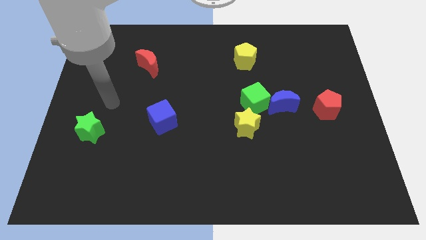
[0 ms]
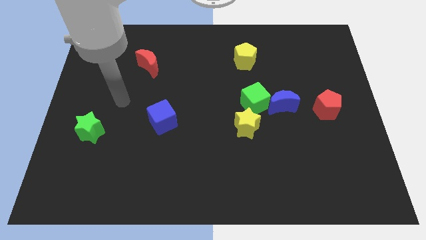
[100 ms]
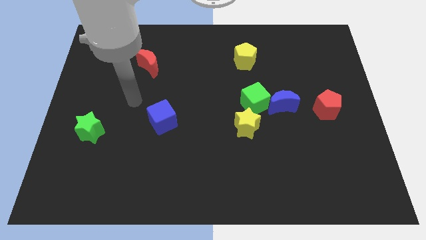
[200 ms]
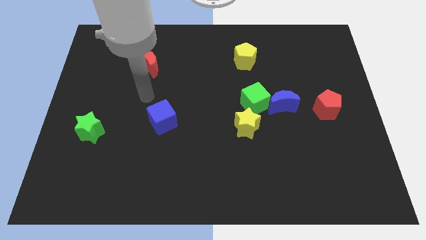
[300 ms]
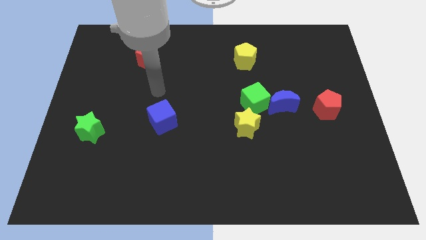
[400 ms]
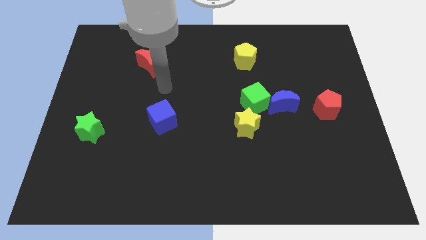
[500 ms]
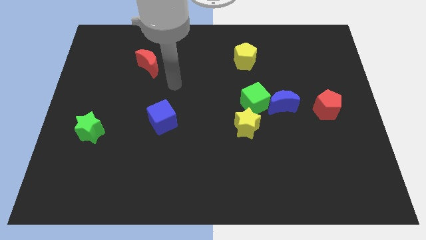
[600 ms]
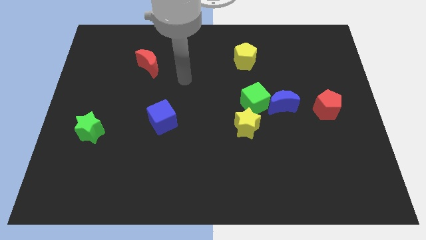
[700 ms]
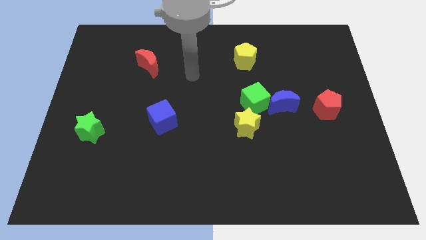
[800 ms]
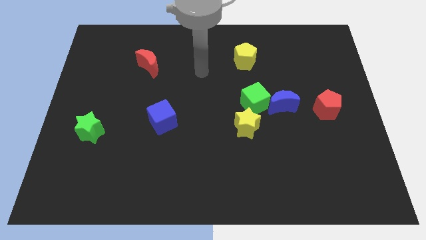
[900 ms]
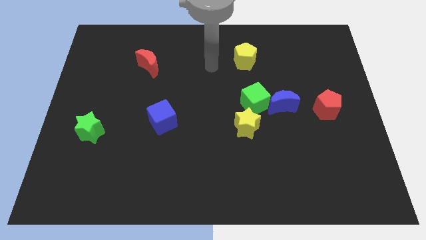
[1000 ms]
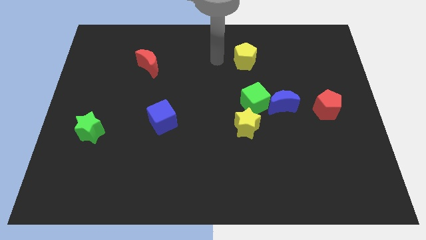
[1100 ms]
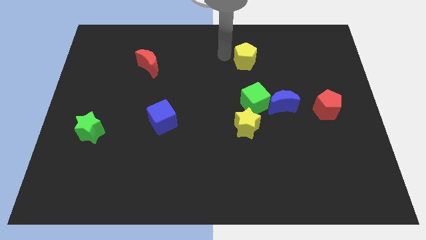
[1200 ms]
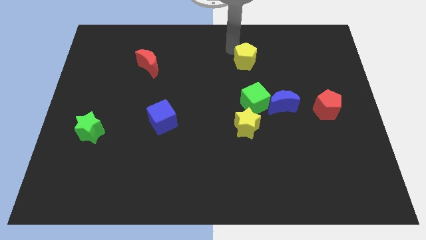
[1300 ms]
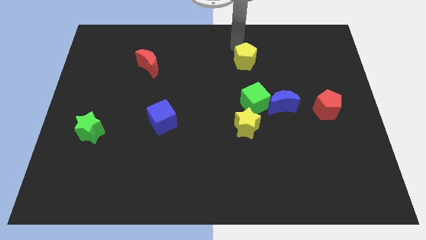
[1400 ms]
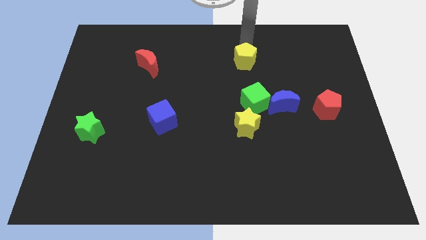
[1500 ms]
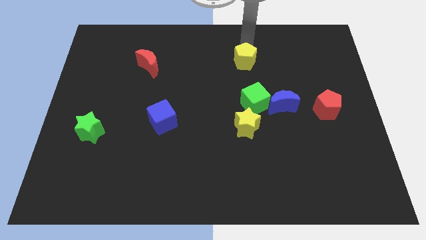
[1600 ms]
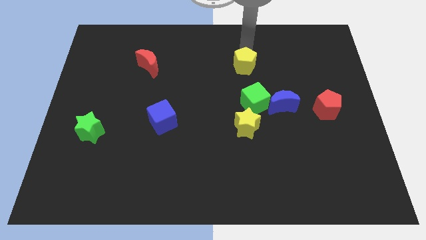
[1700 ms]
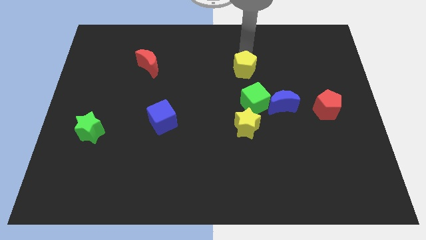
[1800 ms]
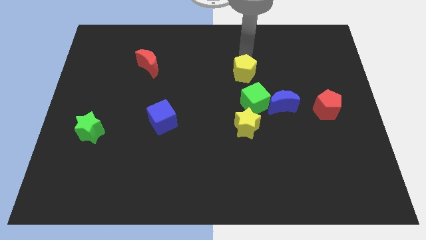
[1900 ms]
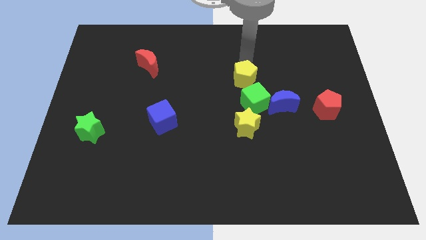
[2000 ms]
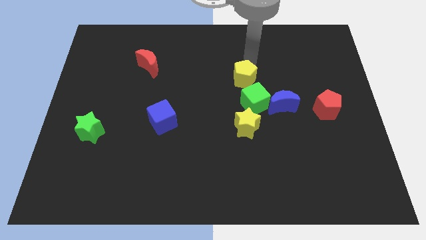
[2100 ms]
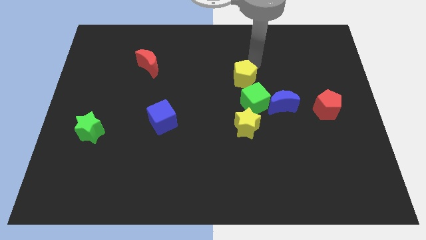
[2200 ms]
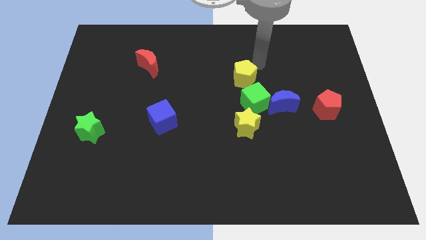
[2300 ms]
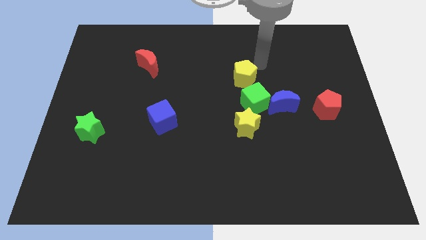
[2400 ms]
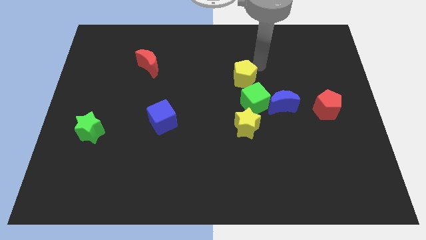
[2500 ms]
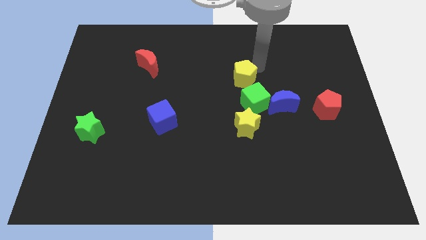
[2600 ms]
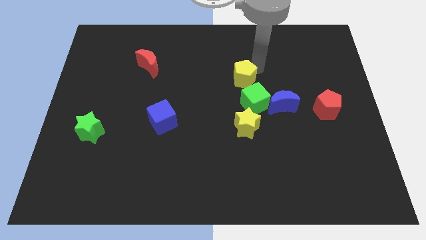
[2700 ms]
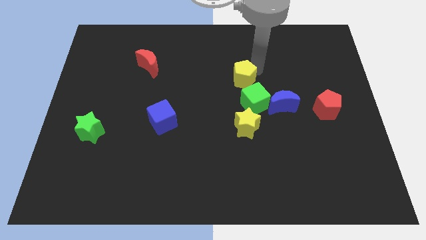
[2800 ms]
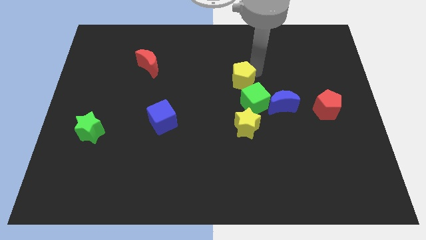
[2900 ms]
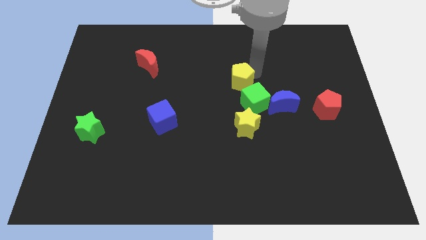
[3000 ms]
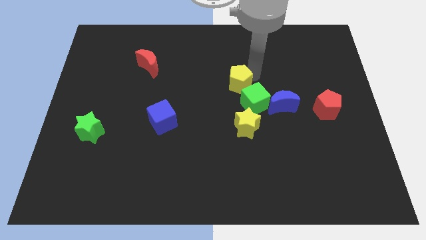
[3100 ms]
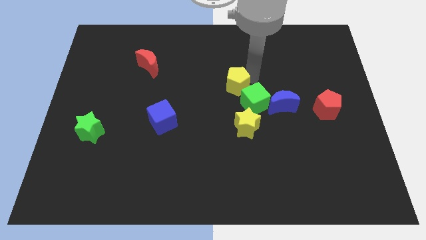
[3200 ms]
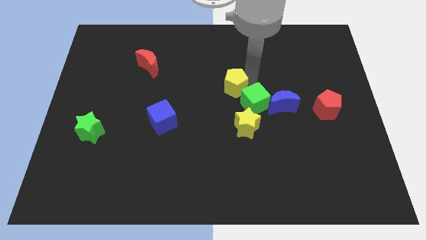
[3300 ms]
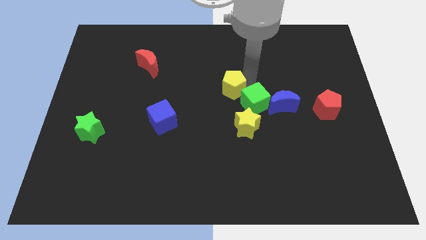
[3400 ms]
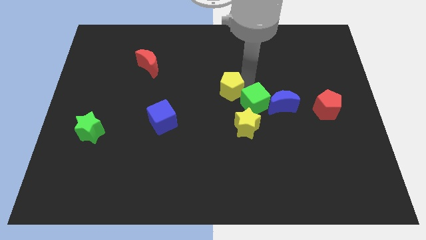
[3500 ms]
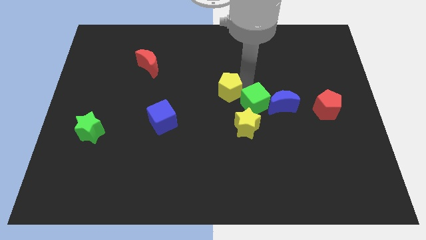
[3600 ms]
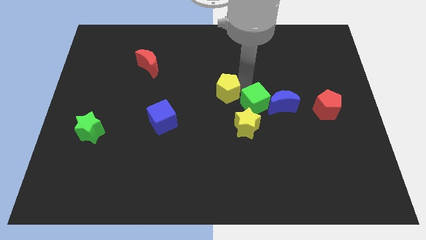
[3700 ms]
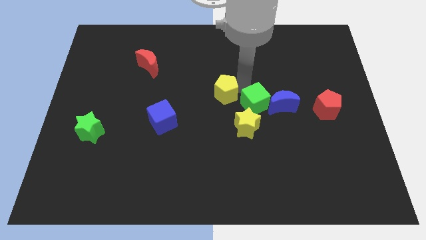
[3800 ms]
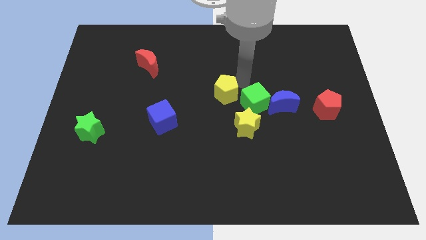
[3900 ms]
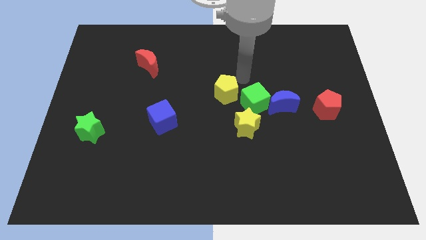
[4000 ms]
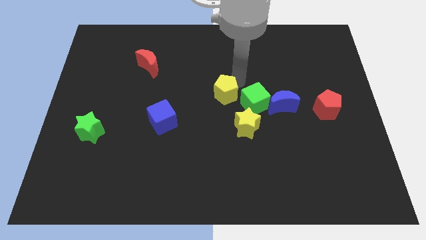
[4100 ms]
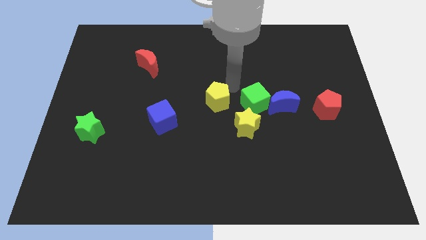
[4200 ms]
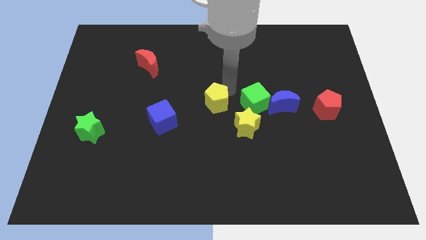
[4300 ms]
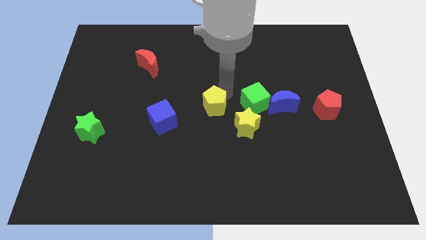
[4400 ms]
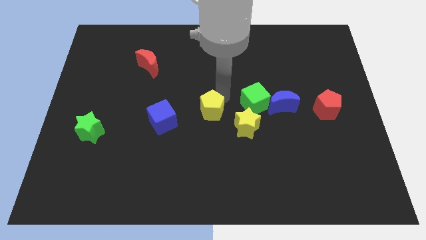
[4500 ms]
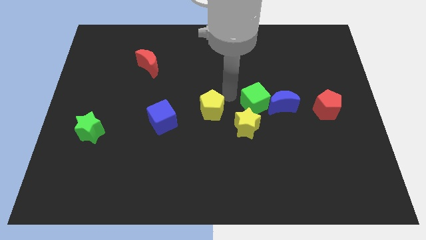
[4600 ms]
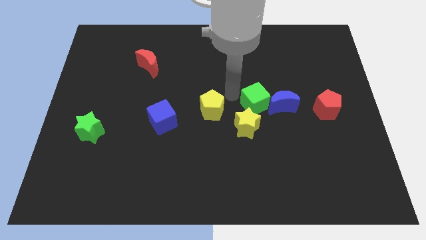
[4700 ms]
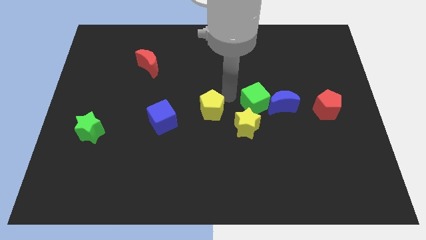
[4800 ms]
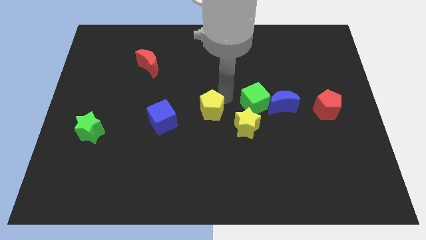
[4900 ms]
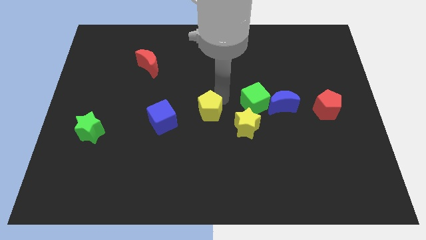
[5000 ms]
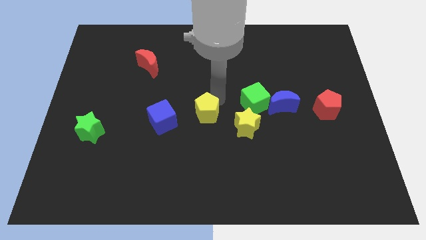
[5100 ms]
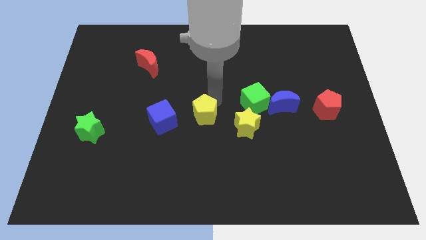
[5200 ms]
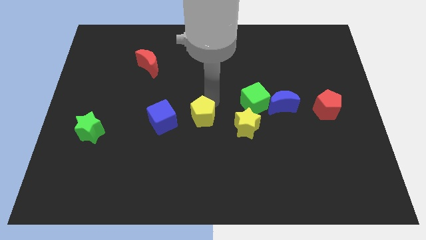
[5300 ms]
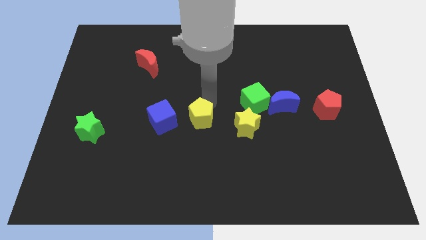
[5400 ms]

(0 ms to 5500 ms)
push the yellow pentagon downwards and then left

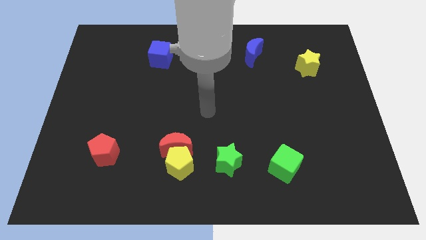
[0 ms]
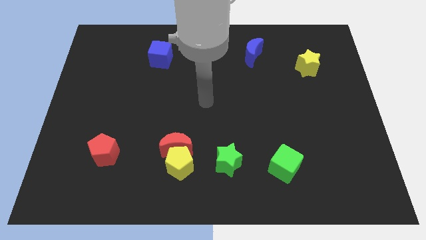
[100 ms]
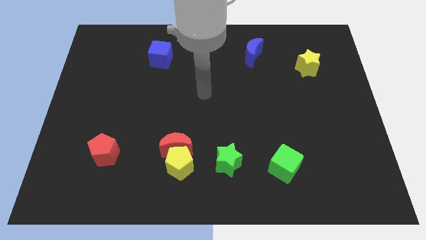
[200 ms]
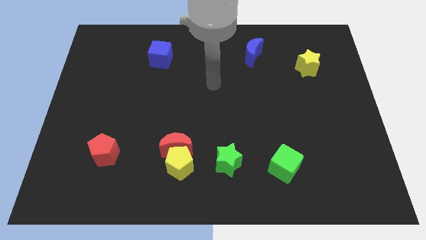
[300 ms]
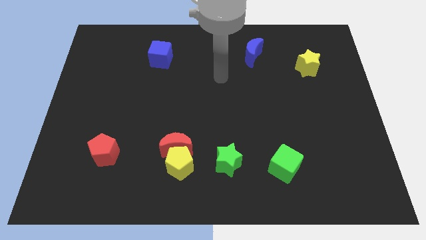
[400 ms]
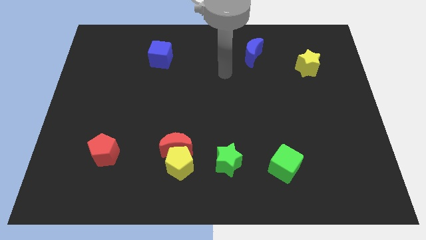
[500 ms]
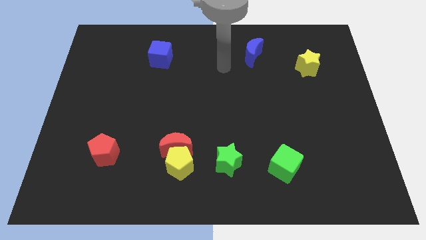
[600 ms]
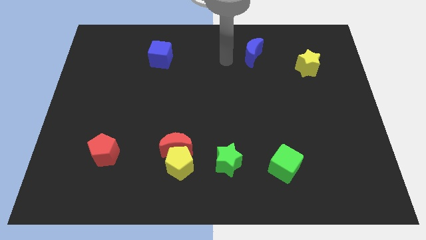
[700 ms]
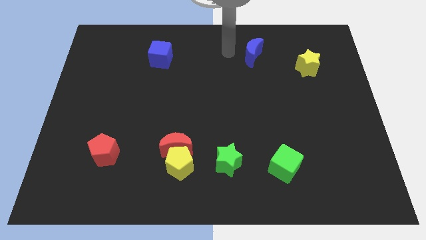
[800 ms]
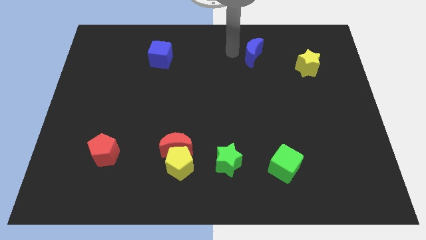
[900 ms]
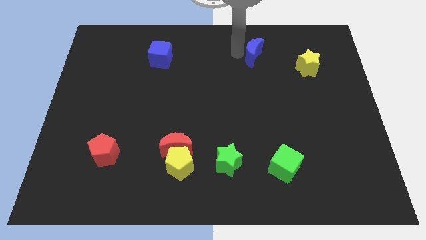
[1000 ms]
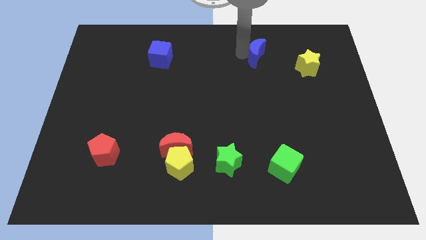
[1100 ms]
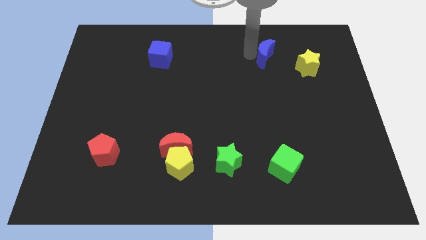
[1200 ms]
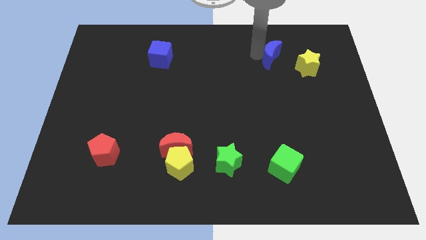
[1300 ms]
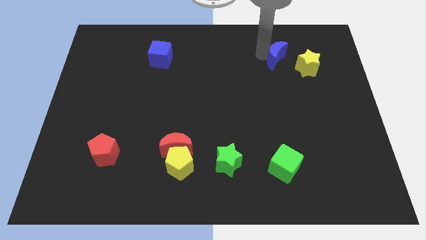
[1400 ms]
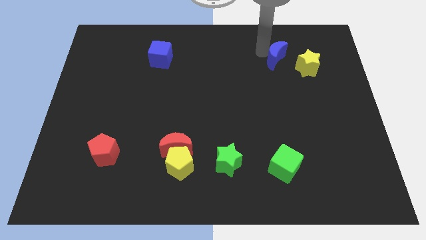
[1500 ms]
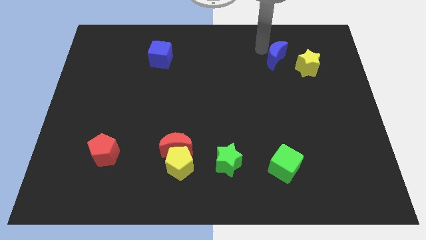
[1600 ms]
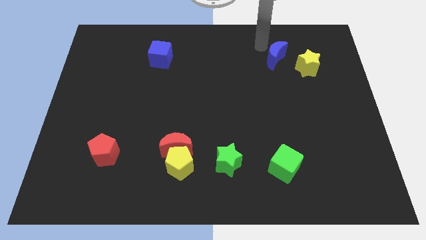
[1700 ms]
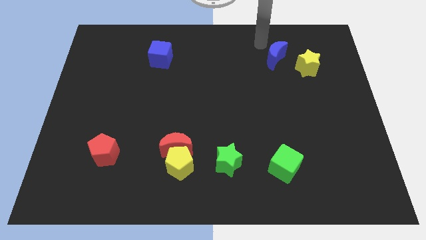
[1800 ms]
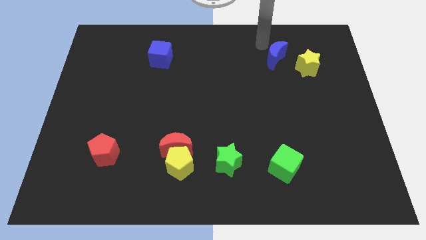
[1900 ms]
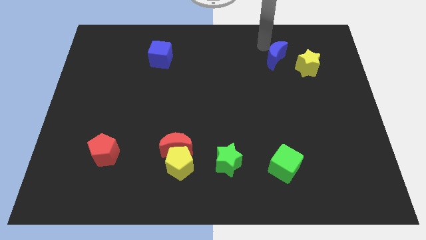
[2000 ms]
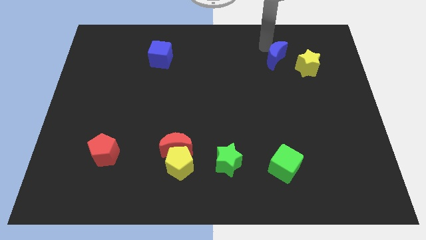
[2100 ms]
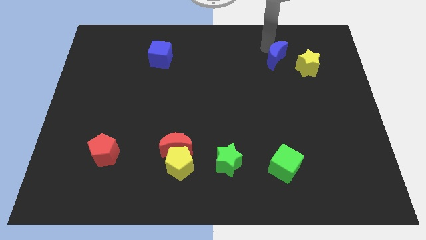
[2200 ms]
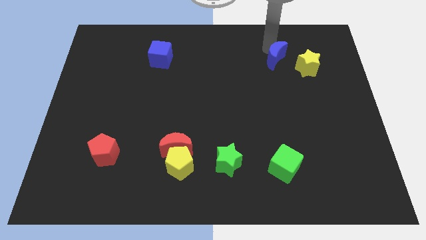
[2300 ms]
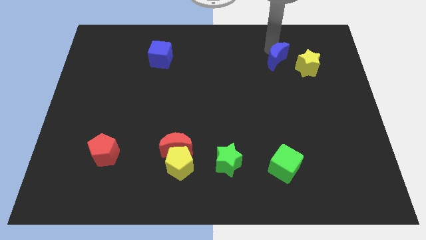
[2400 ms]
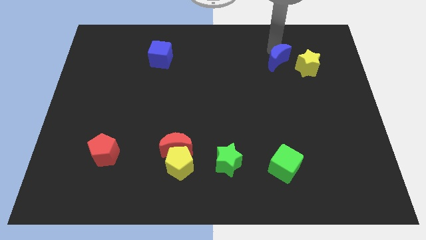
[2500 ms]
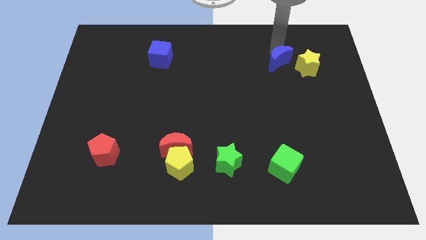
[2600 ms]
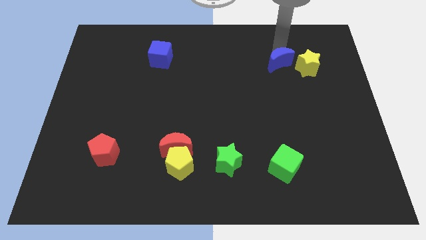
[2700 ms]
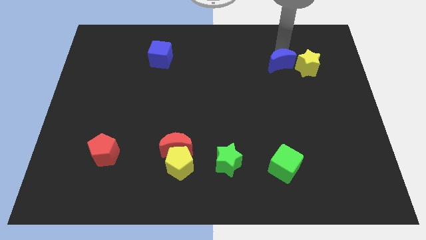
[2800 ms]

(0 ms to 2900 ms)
slide the blue moon a little bit diagonally down and right
